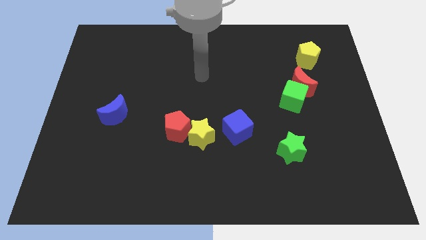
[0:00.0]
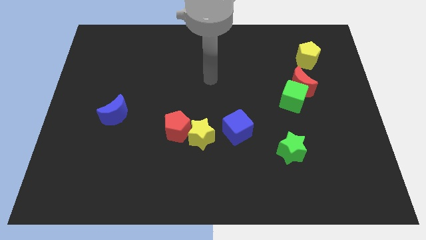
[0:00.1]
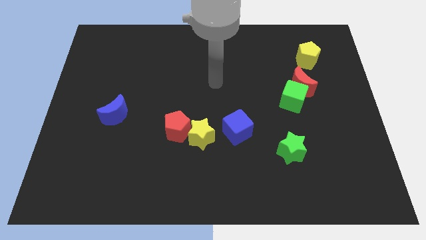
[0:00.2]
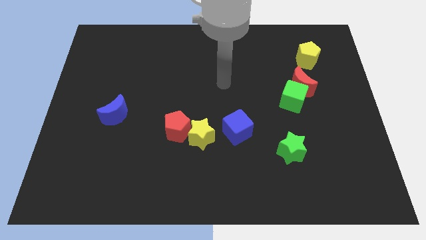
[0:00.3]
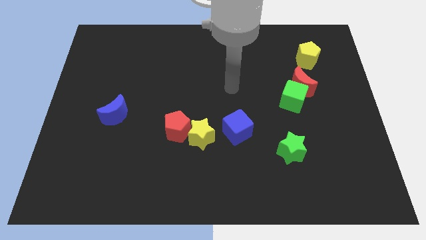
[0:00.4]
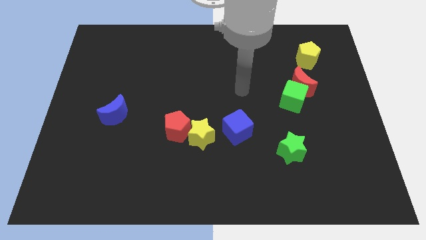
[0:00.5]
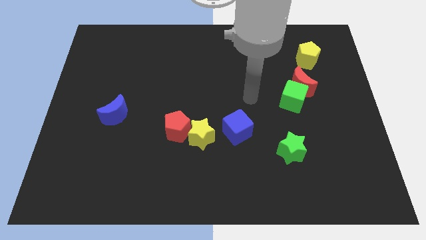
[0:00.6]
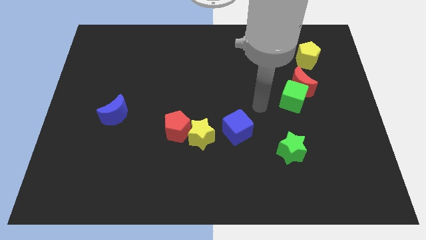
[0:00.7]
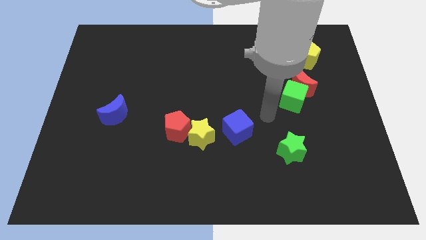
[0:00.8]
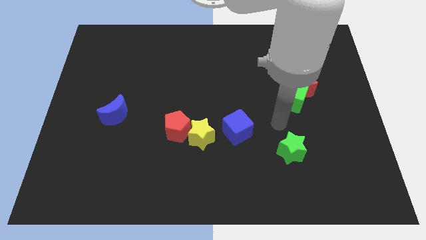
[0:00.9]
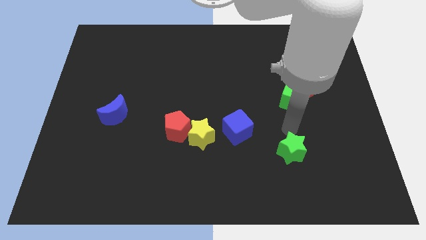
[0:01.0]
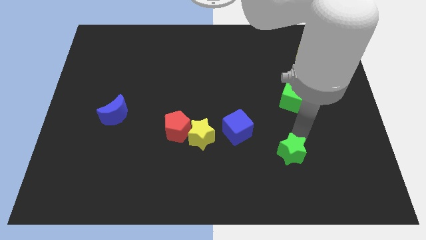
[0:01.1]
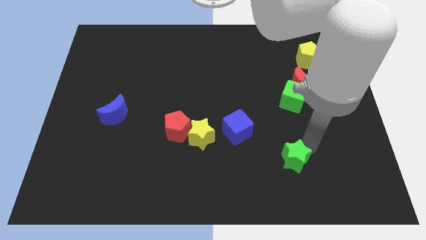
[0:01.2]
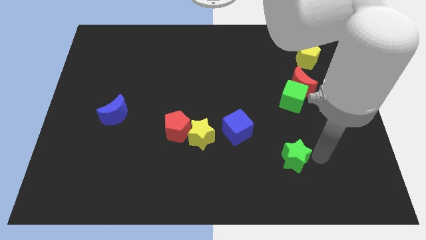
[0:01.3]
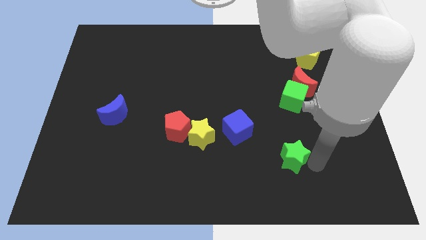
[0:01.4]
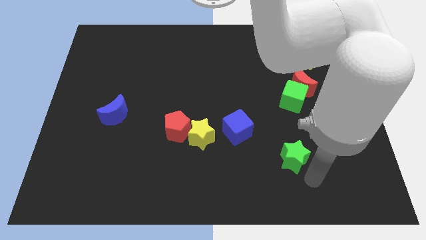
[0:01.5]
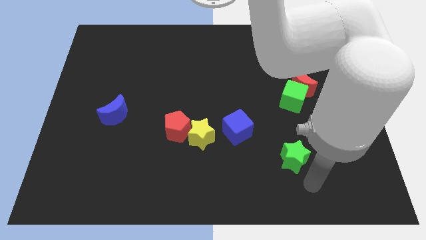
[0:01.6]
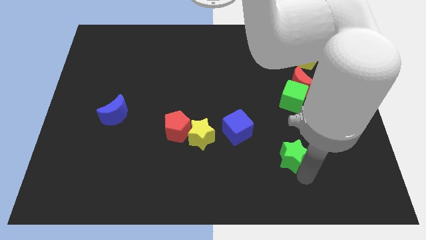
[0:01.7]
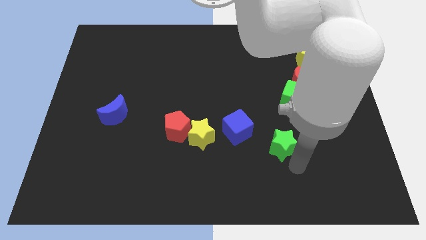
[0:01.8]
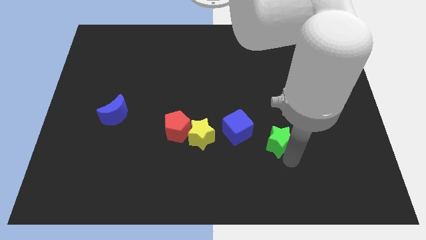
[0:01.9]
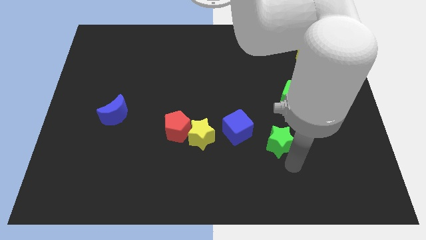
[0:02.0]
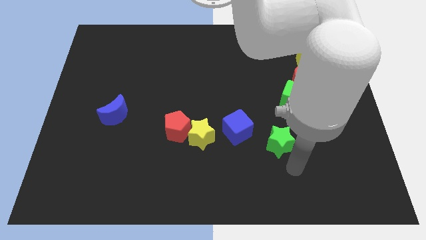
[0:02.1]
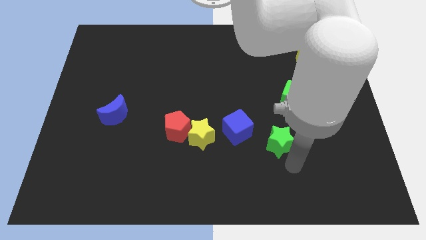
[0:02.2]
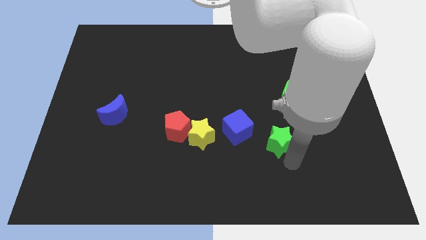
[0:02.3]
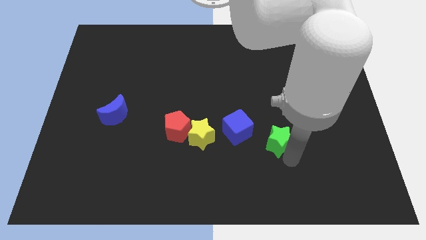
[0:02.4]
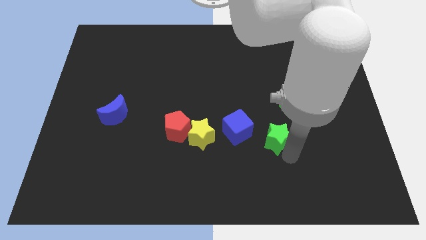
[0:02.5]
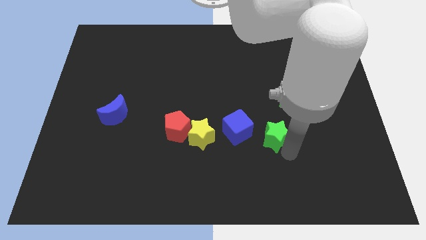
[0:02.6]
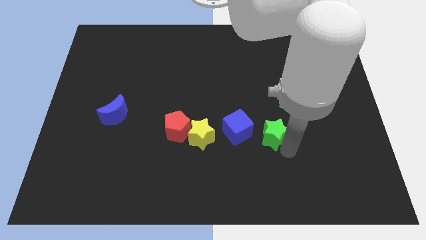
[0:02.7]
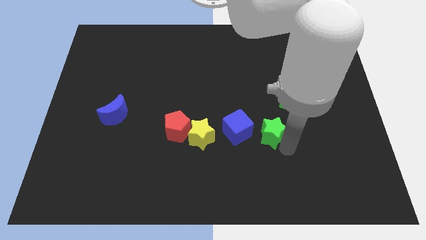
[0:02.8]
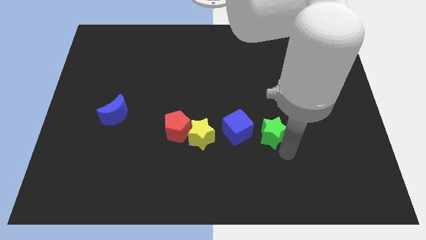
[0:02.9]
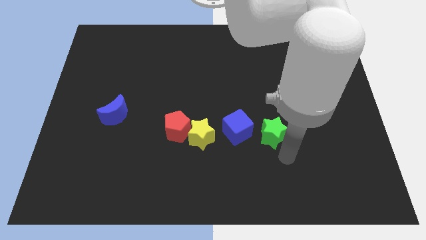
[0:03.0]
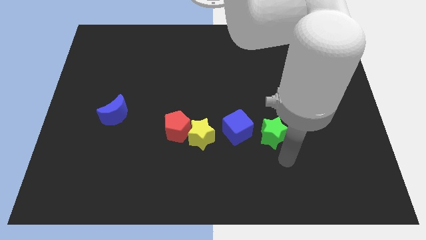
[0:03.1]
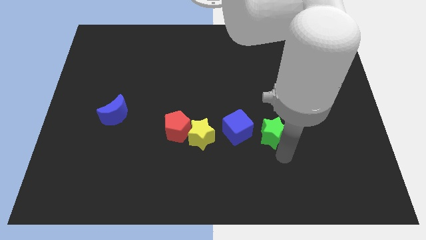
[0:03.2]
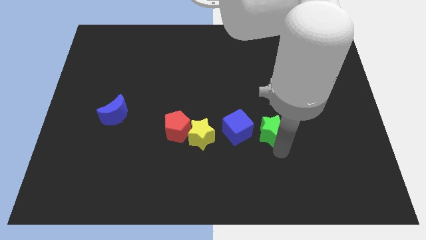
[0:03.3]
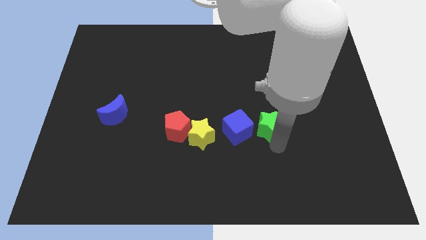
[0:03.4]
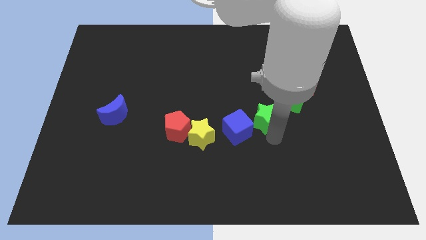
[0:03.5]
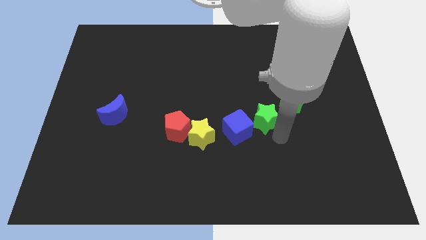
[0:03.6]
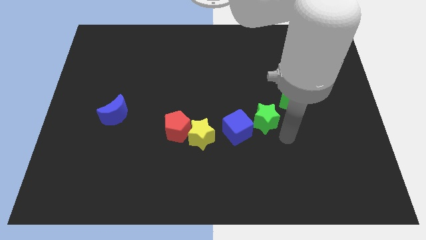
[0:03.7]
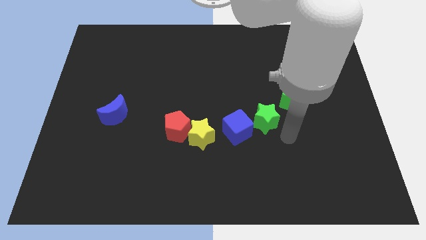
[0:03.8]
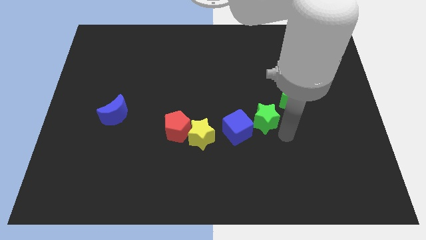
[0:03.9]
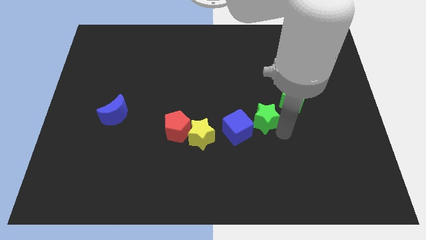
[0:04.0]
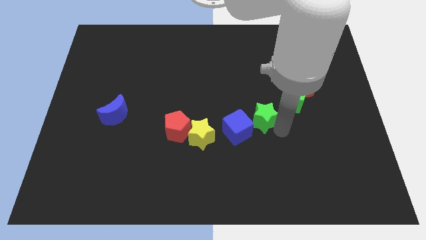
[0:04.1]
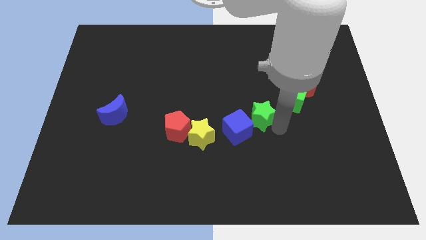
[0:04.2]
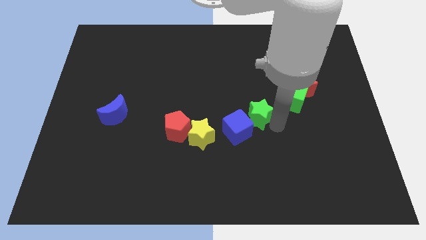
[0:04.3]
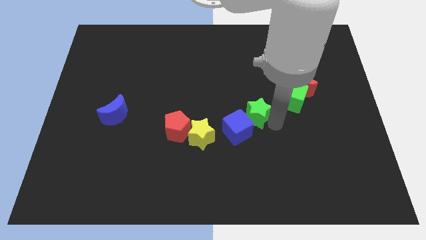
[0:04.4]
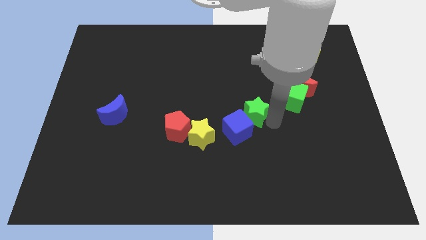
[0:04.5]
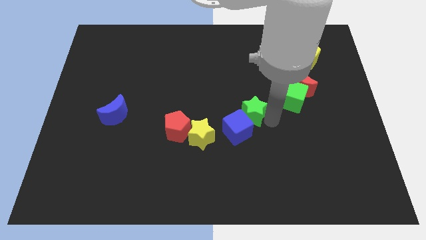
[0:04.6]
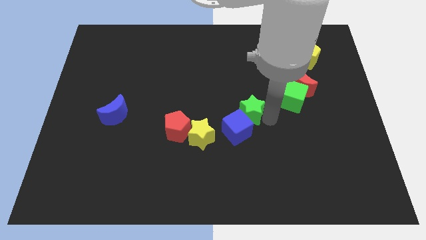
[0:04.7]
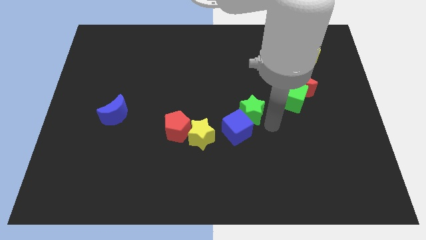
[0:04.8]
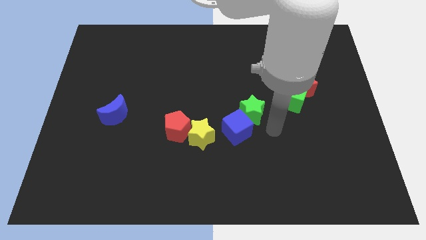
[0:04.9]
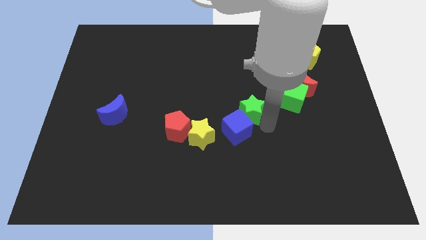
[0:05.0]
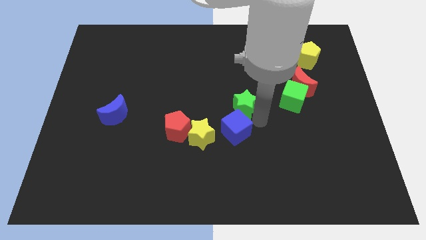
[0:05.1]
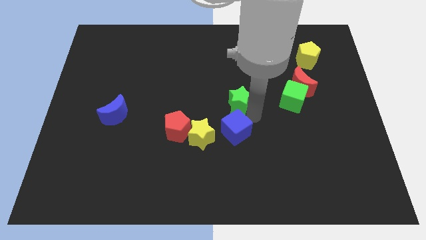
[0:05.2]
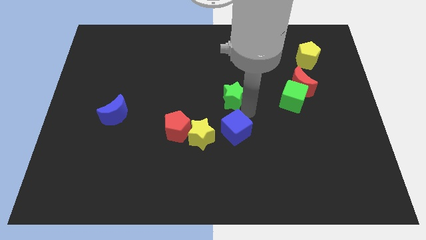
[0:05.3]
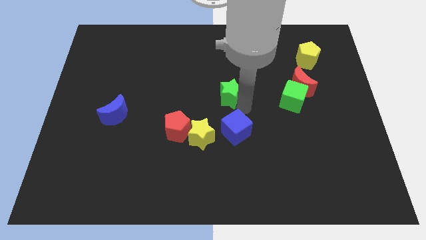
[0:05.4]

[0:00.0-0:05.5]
push the green star diagonally upwards and to the left

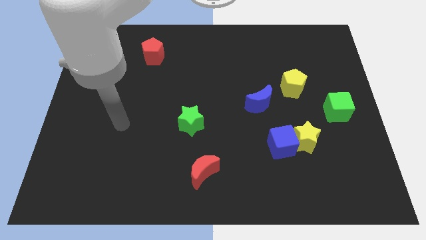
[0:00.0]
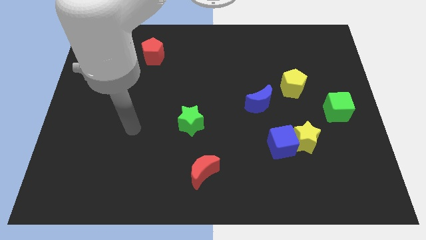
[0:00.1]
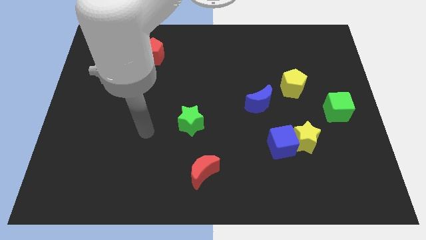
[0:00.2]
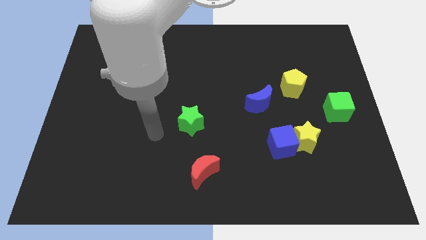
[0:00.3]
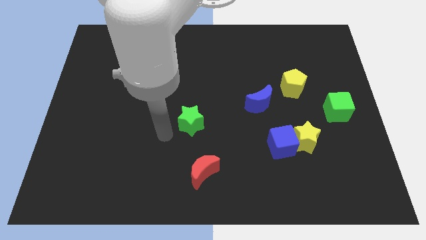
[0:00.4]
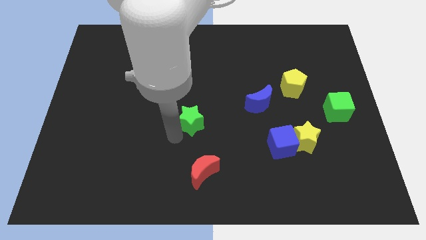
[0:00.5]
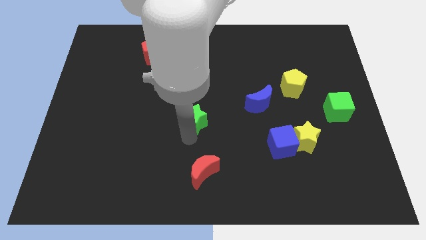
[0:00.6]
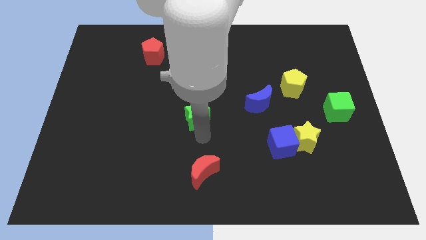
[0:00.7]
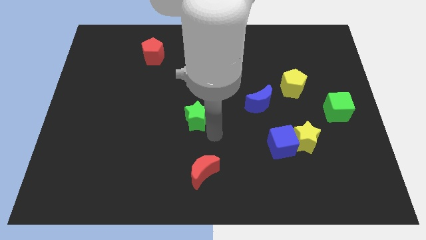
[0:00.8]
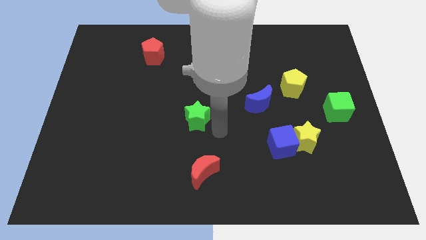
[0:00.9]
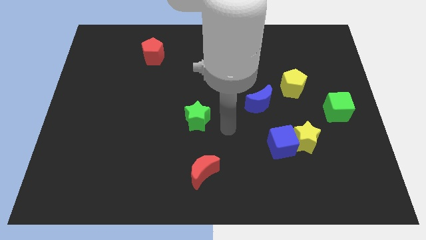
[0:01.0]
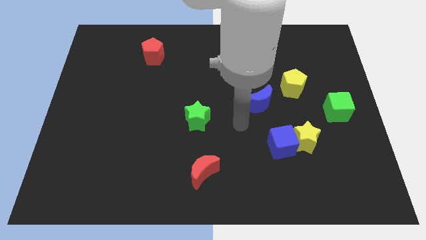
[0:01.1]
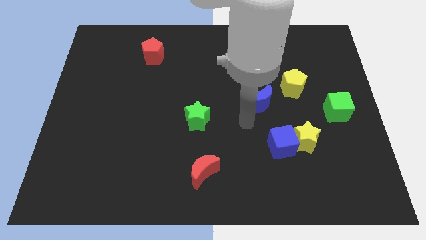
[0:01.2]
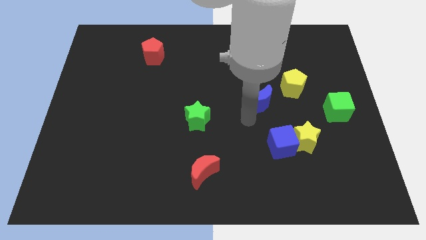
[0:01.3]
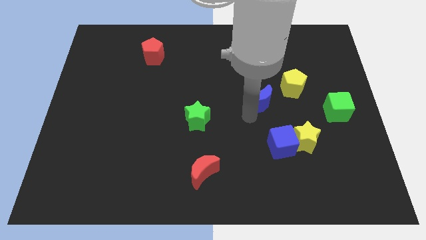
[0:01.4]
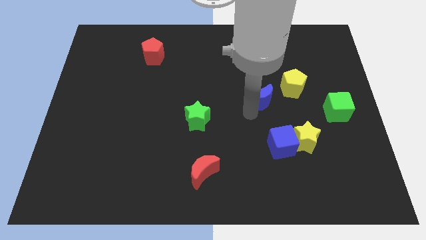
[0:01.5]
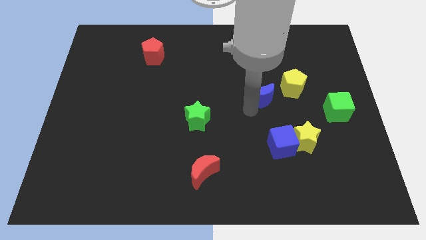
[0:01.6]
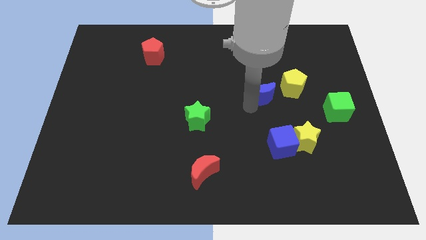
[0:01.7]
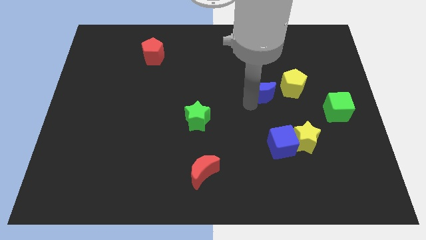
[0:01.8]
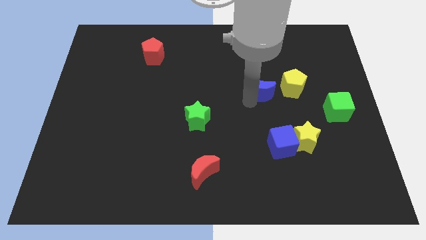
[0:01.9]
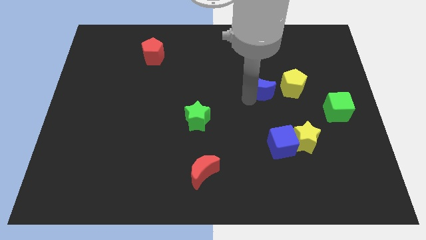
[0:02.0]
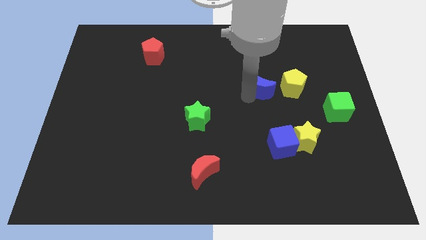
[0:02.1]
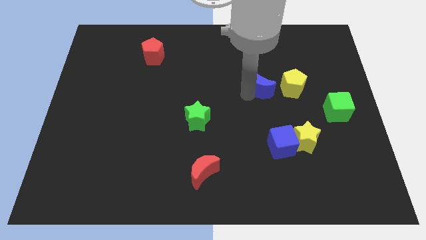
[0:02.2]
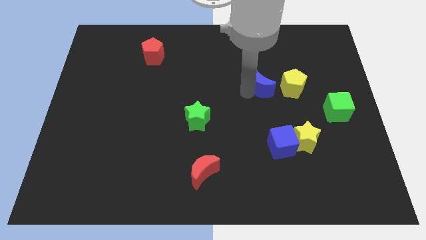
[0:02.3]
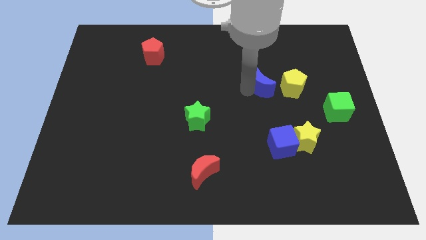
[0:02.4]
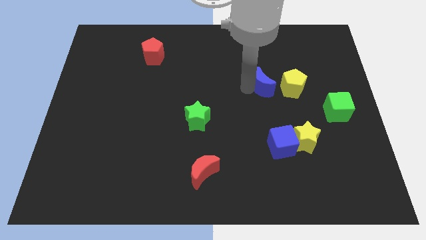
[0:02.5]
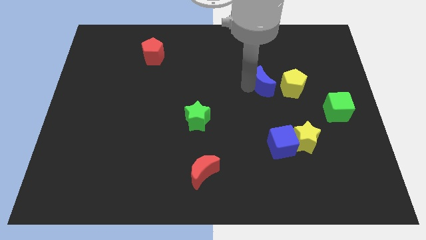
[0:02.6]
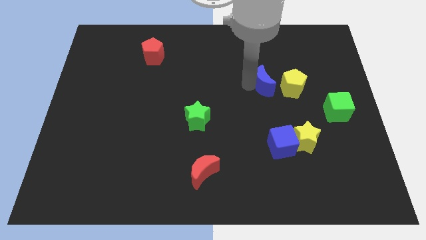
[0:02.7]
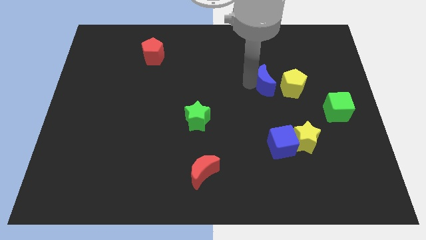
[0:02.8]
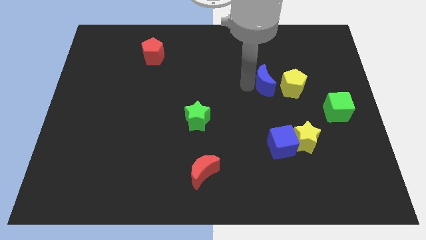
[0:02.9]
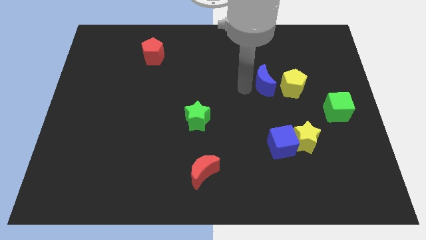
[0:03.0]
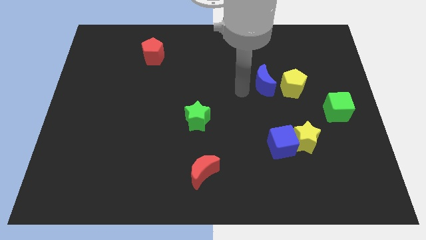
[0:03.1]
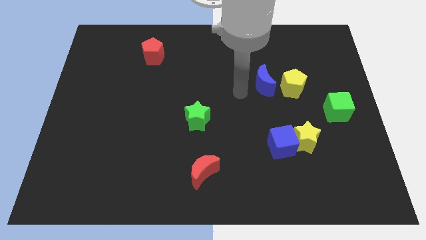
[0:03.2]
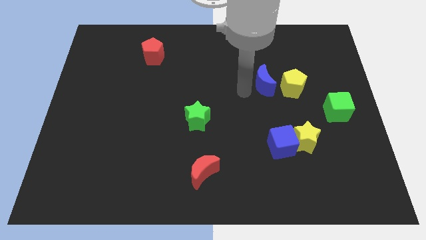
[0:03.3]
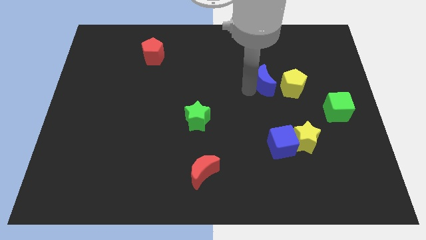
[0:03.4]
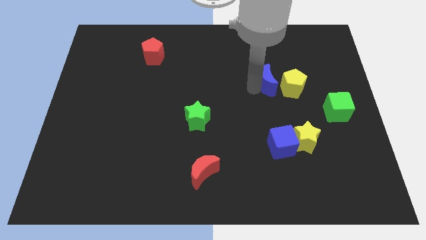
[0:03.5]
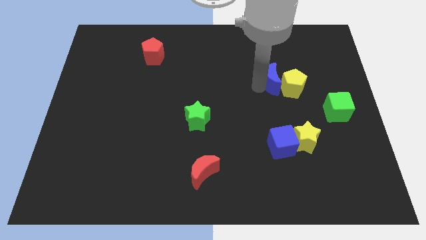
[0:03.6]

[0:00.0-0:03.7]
push the blue moon up and then right a little
